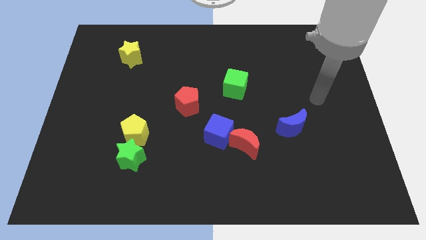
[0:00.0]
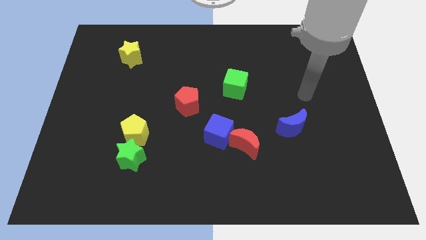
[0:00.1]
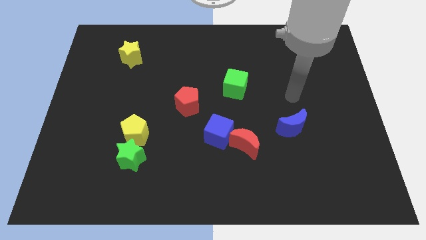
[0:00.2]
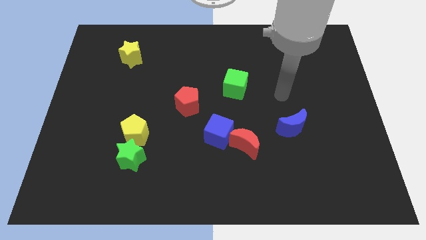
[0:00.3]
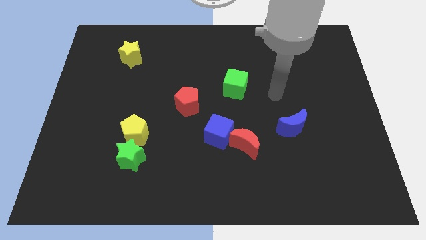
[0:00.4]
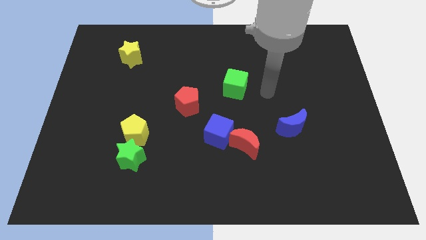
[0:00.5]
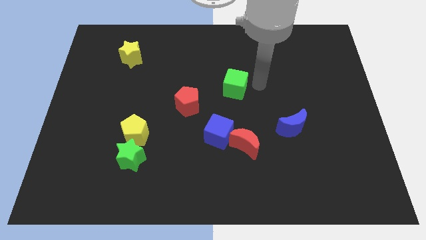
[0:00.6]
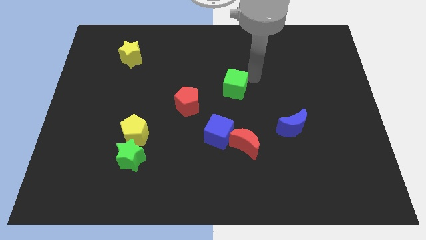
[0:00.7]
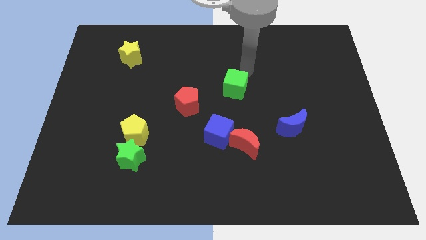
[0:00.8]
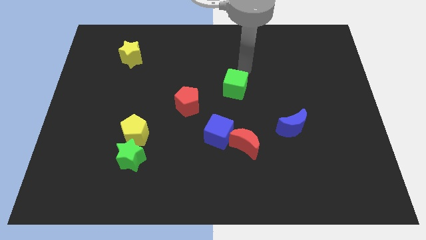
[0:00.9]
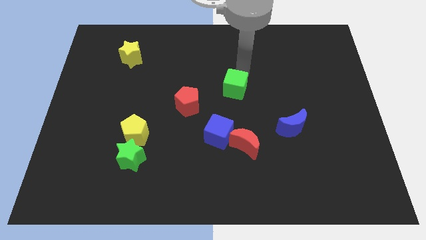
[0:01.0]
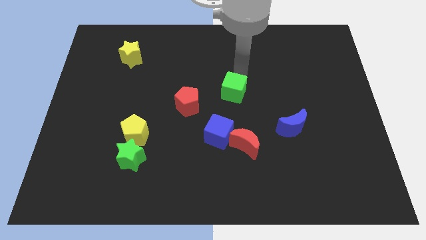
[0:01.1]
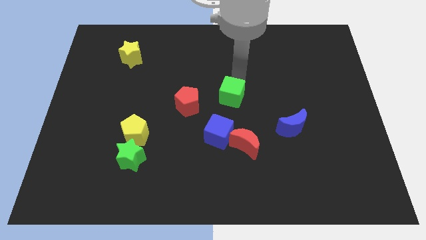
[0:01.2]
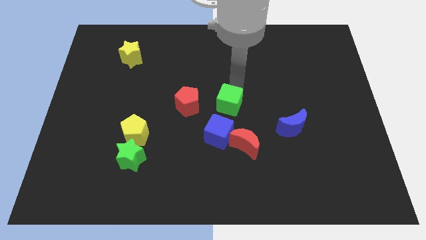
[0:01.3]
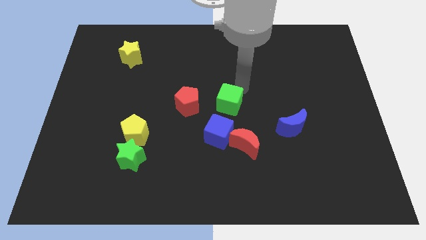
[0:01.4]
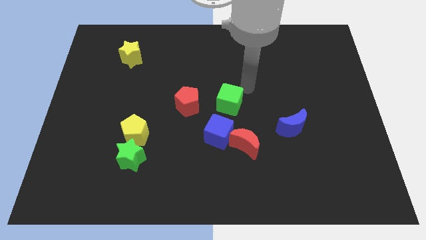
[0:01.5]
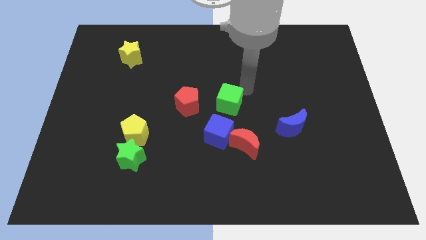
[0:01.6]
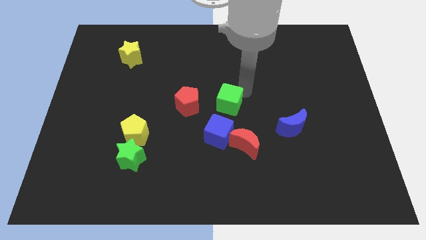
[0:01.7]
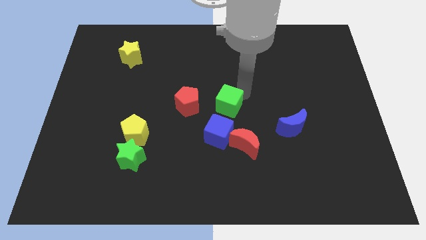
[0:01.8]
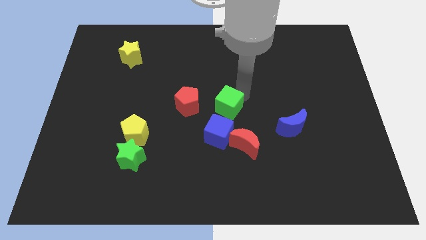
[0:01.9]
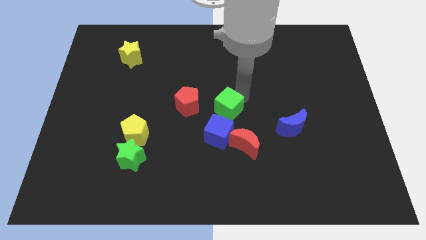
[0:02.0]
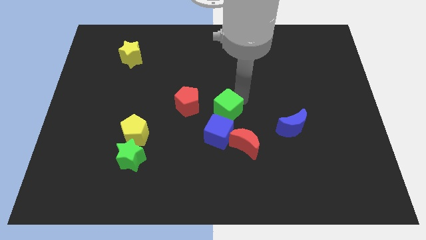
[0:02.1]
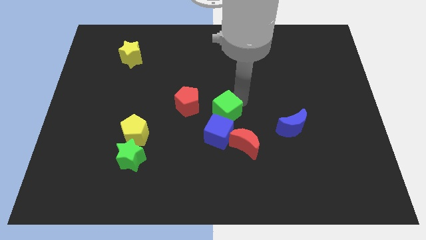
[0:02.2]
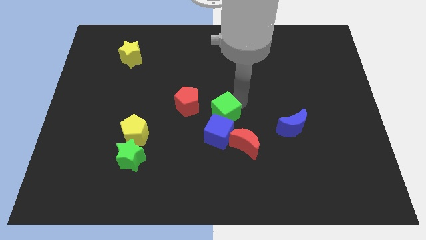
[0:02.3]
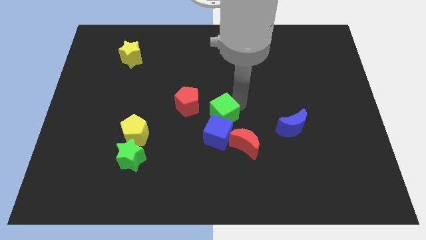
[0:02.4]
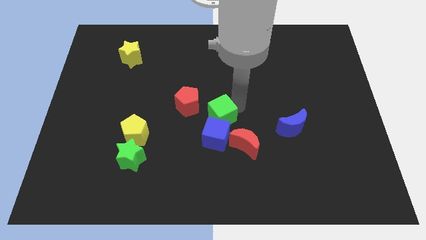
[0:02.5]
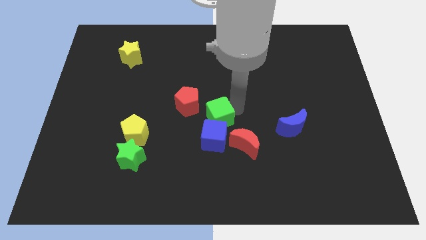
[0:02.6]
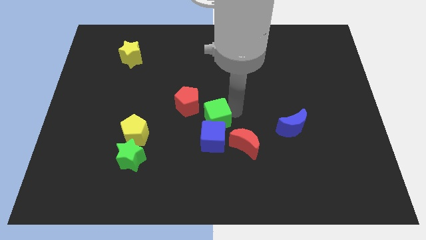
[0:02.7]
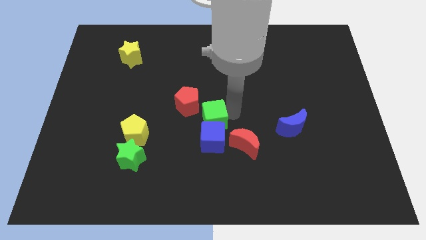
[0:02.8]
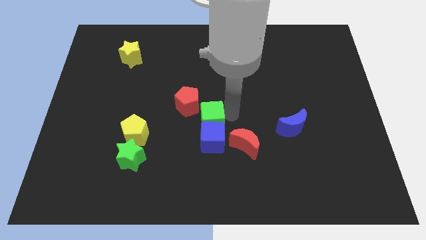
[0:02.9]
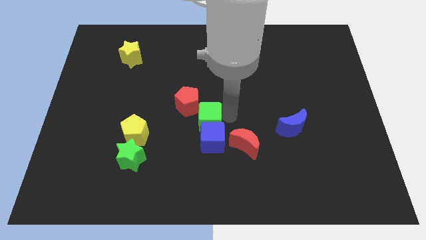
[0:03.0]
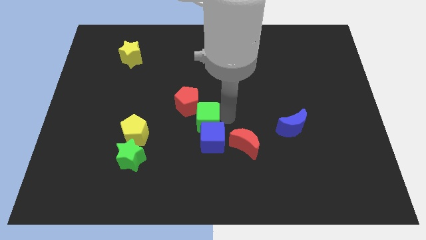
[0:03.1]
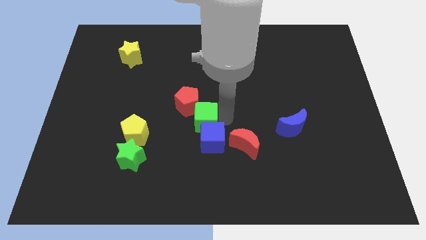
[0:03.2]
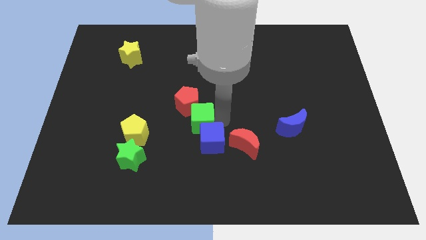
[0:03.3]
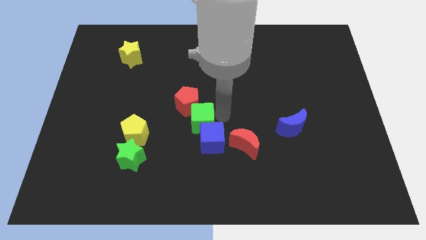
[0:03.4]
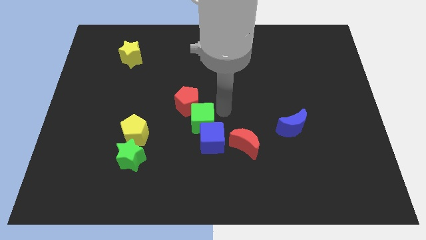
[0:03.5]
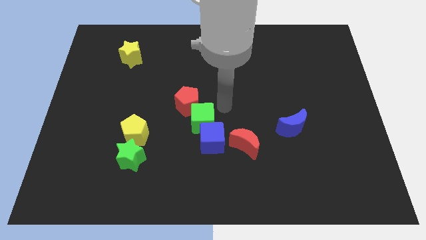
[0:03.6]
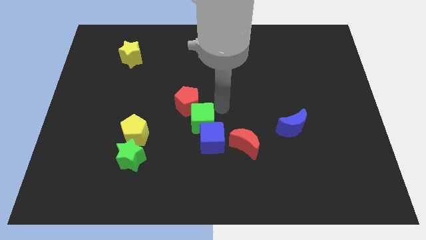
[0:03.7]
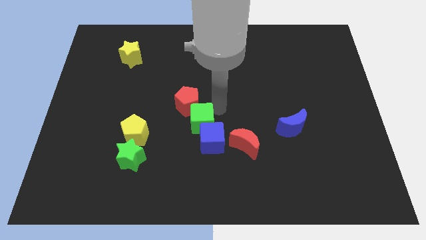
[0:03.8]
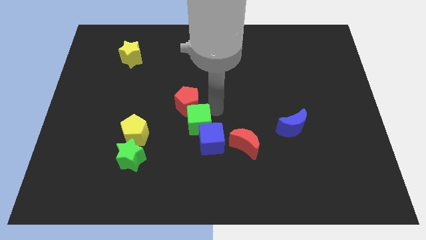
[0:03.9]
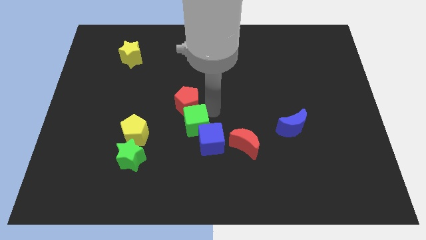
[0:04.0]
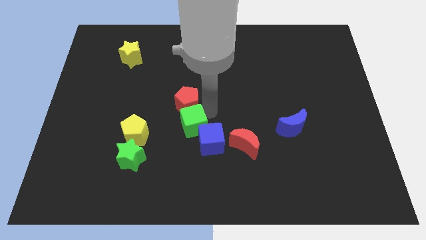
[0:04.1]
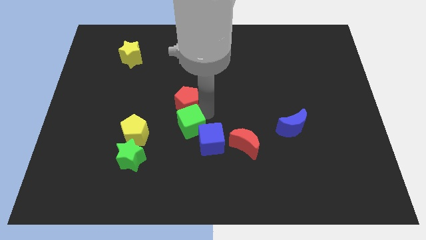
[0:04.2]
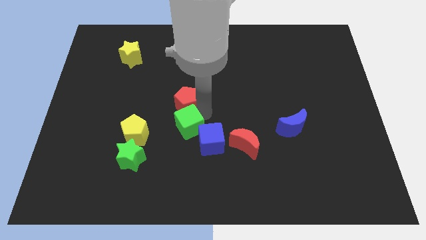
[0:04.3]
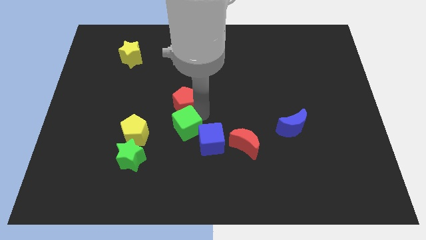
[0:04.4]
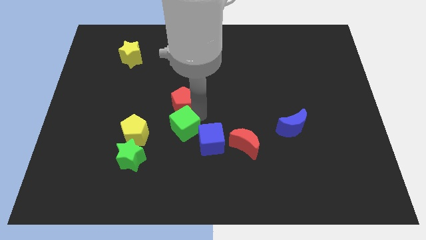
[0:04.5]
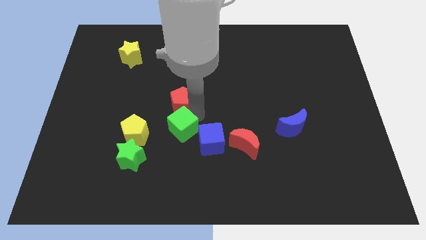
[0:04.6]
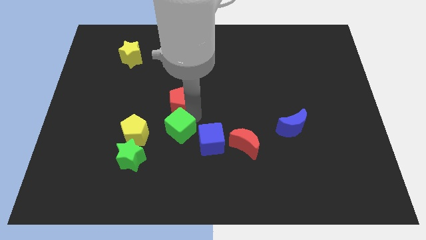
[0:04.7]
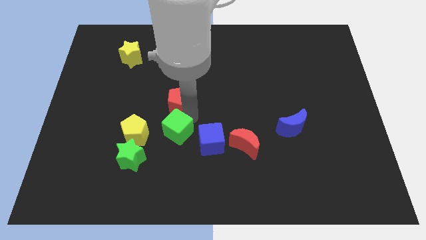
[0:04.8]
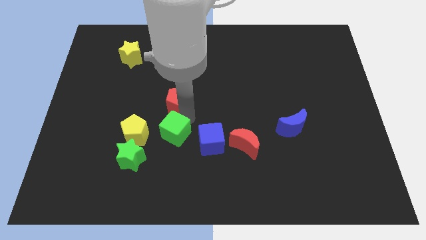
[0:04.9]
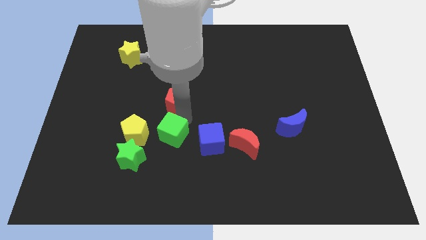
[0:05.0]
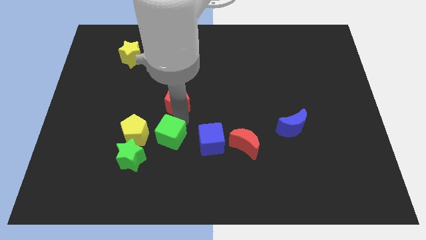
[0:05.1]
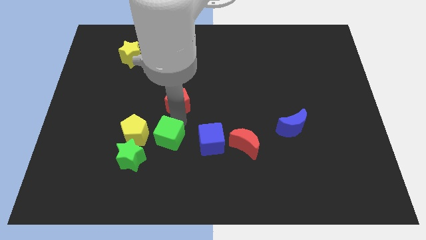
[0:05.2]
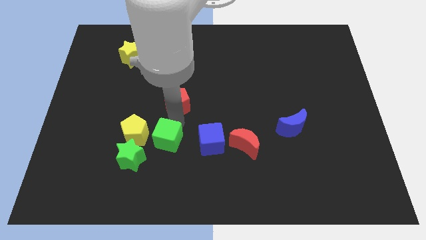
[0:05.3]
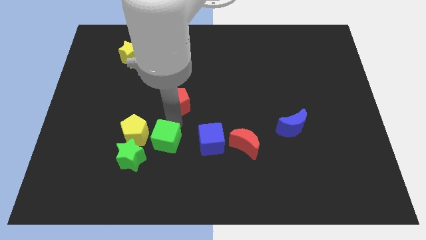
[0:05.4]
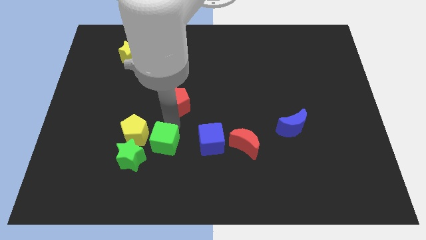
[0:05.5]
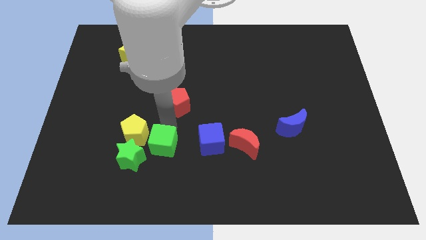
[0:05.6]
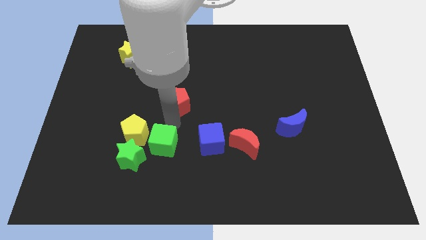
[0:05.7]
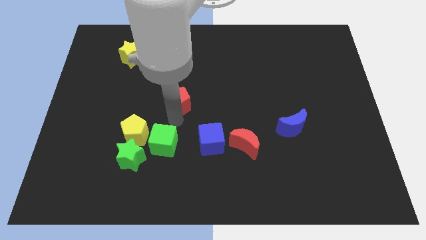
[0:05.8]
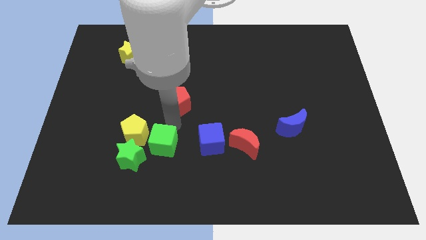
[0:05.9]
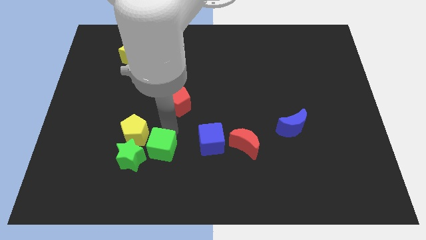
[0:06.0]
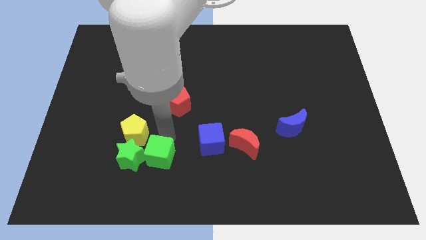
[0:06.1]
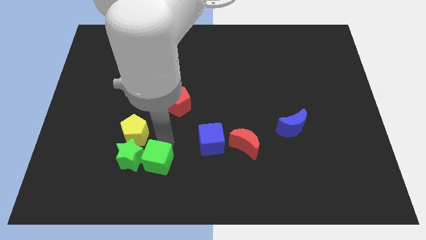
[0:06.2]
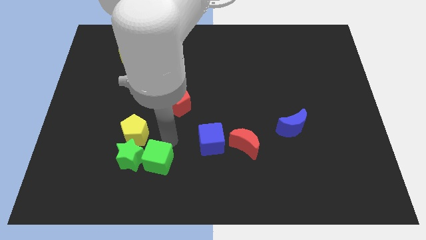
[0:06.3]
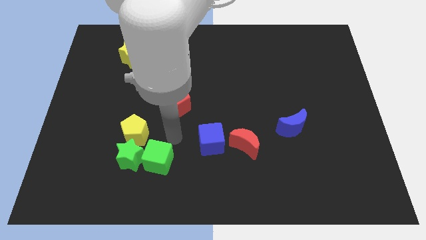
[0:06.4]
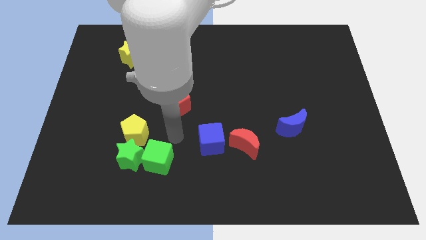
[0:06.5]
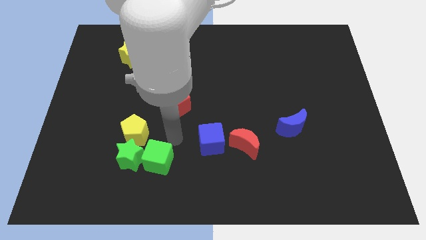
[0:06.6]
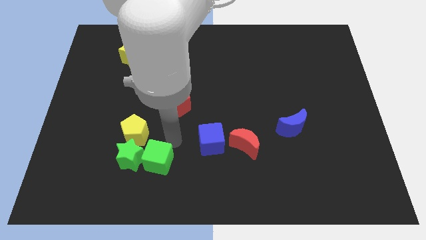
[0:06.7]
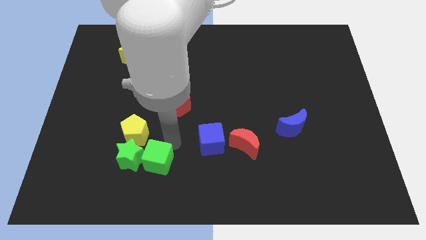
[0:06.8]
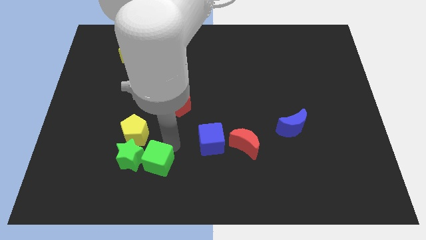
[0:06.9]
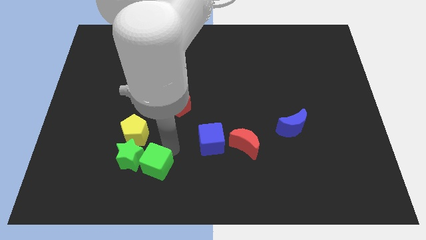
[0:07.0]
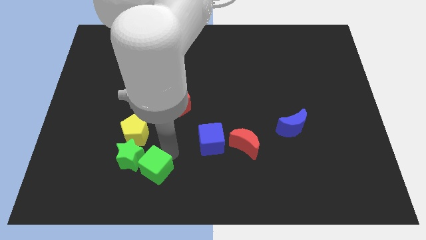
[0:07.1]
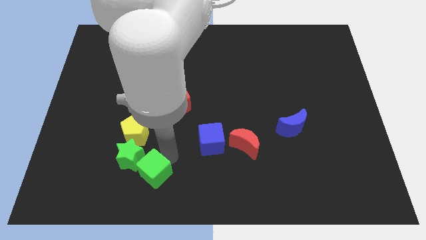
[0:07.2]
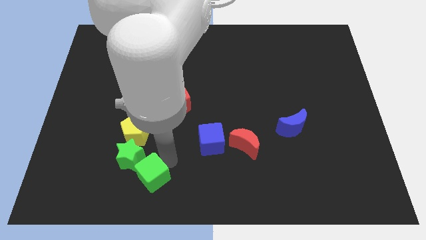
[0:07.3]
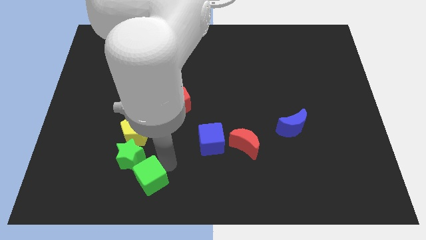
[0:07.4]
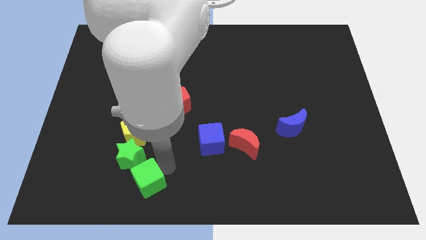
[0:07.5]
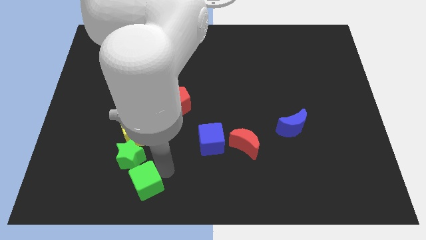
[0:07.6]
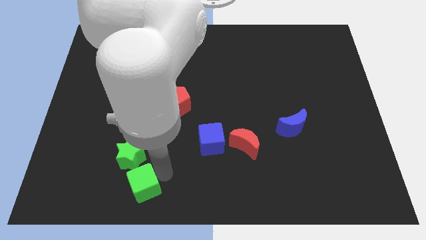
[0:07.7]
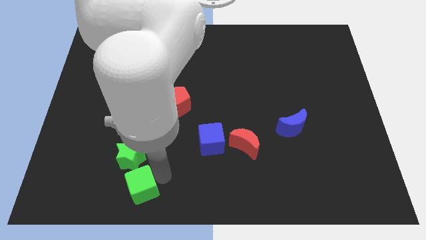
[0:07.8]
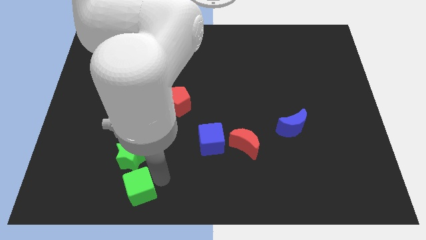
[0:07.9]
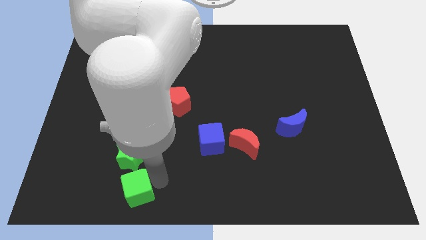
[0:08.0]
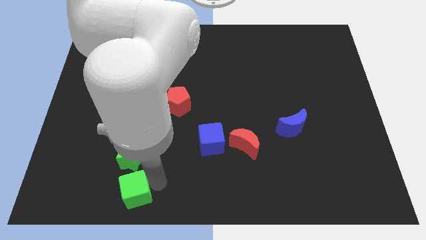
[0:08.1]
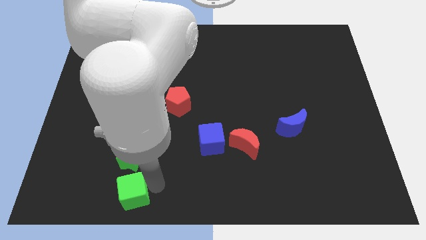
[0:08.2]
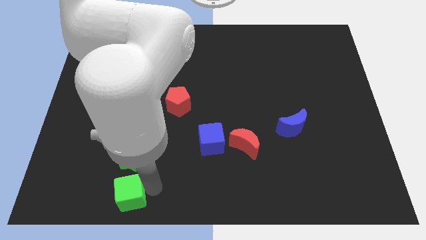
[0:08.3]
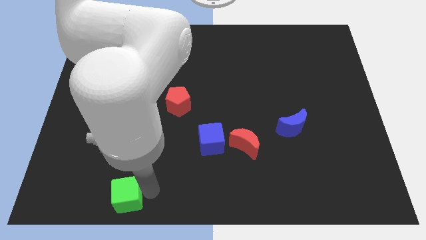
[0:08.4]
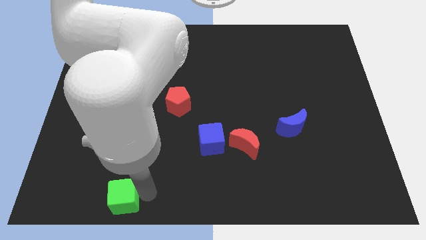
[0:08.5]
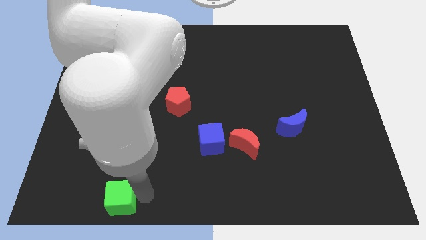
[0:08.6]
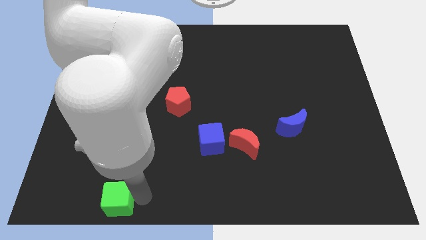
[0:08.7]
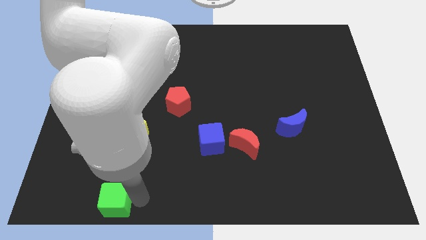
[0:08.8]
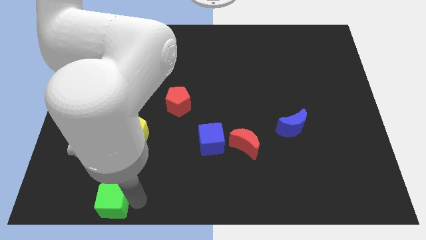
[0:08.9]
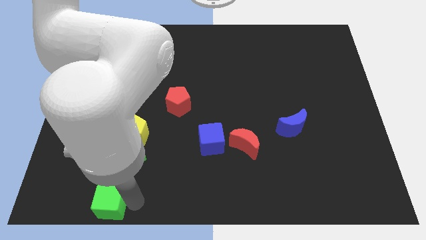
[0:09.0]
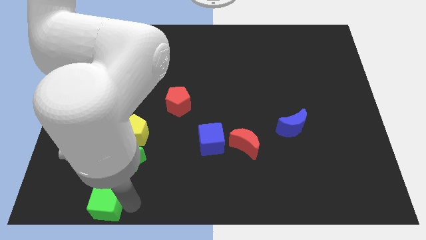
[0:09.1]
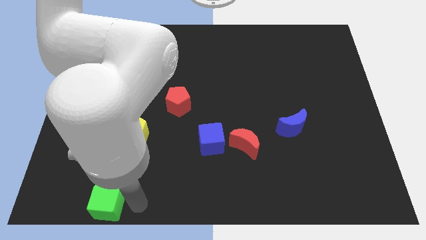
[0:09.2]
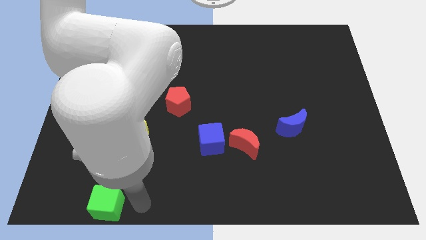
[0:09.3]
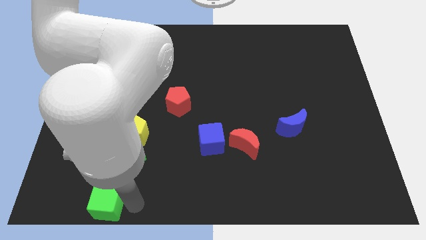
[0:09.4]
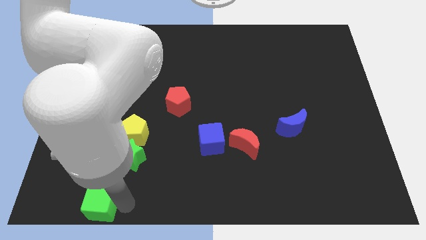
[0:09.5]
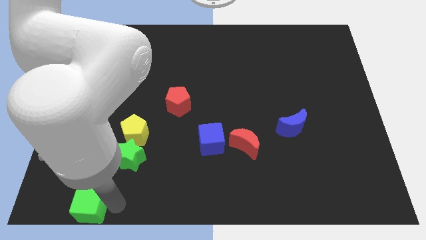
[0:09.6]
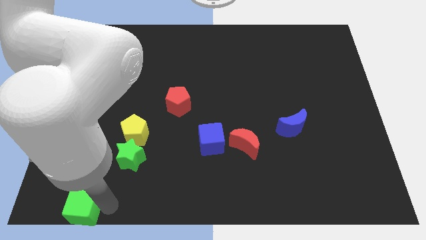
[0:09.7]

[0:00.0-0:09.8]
put the green cube to the bottom left of the board
